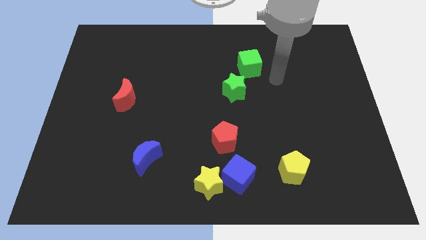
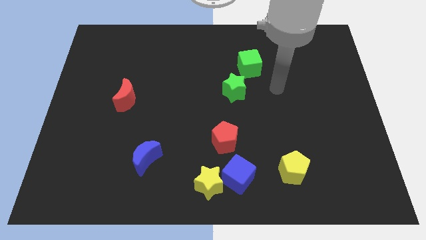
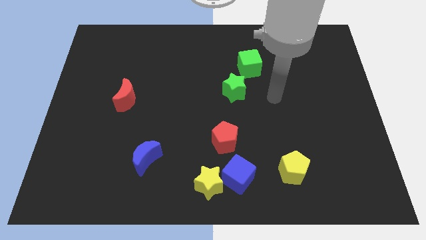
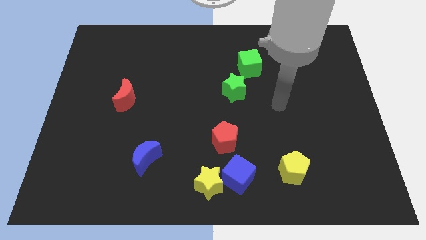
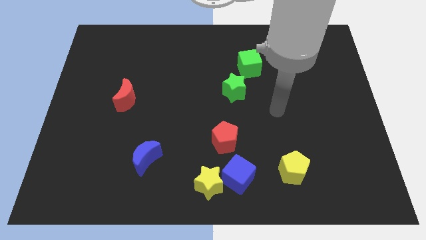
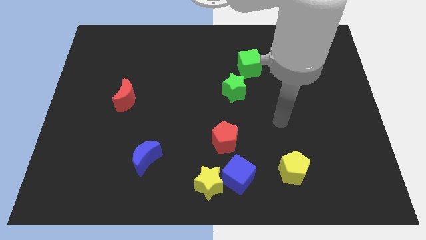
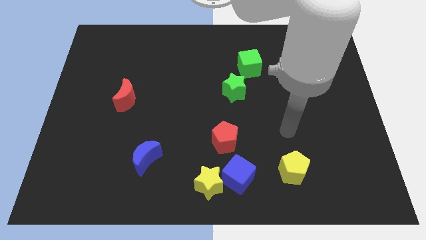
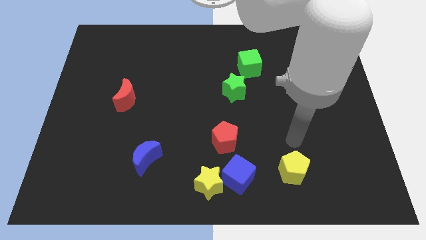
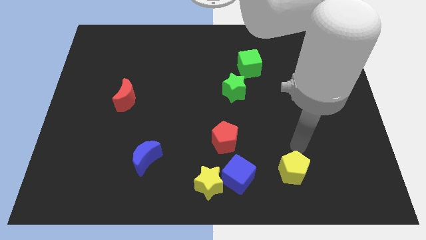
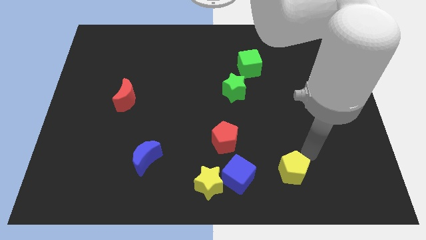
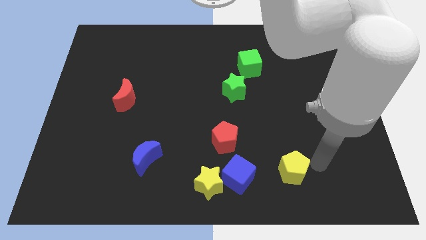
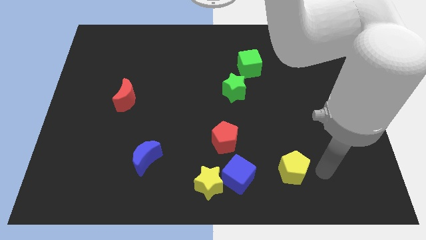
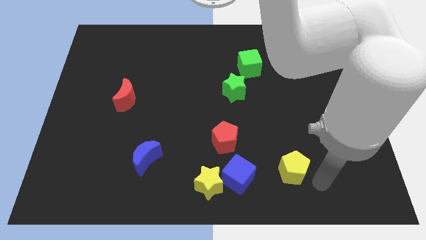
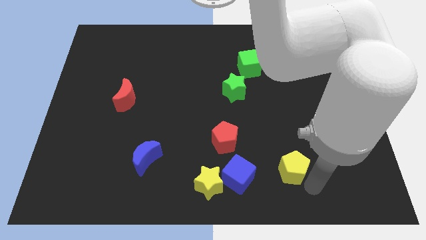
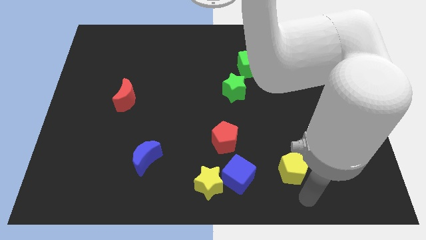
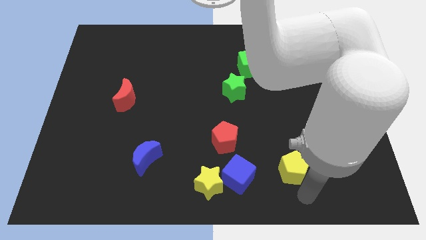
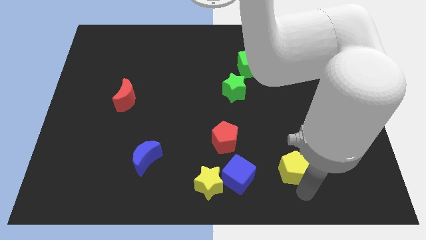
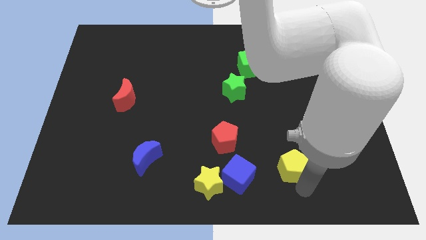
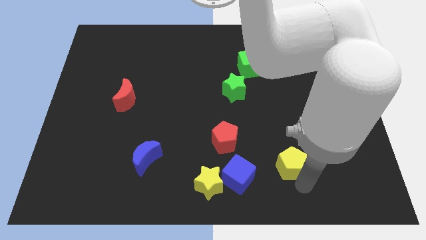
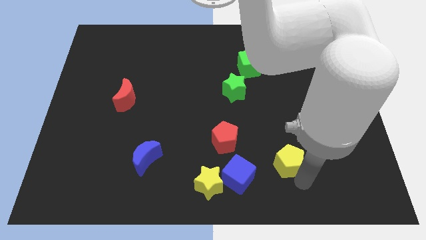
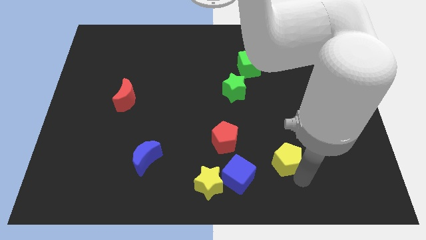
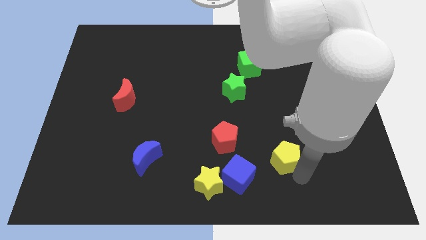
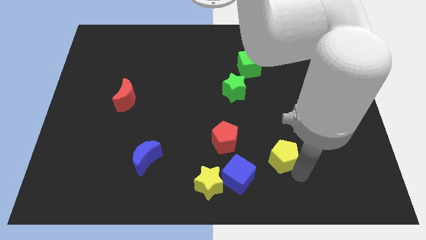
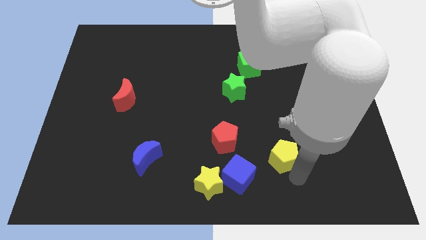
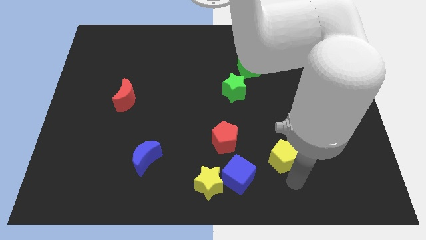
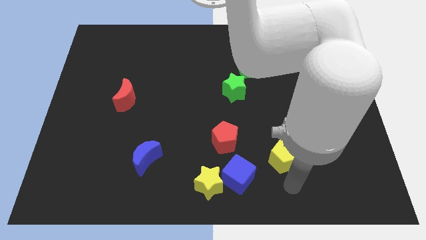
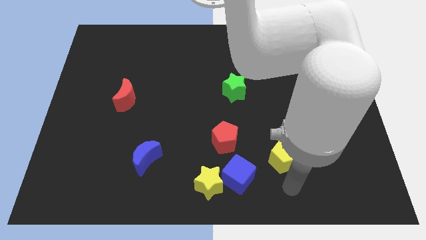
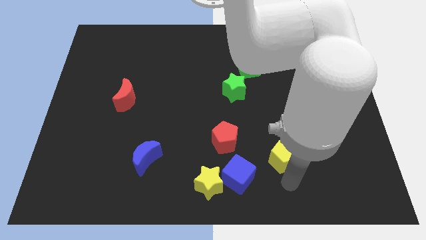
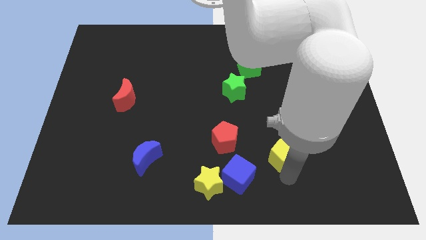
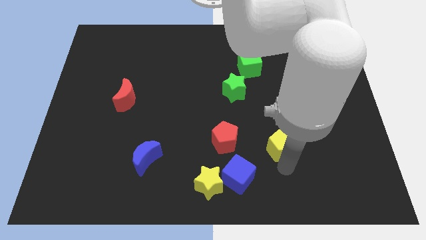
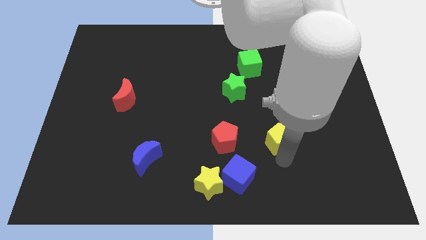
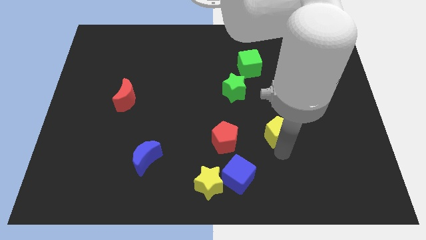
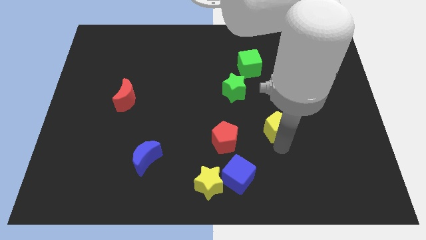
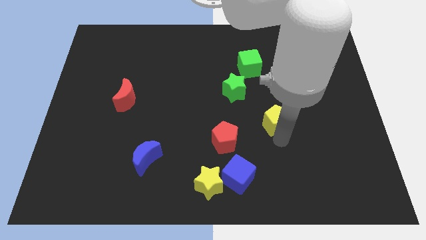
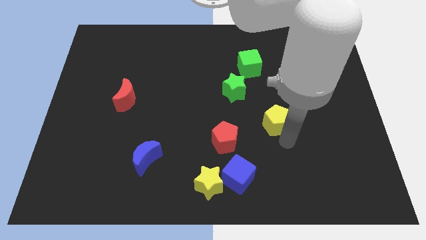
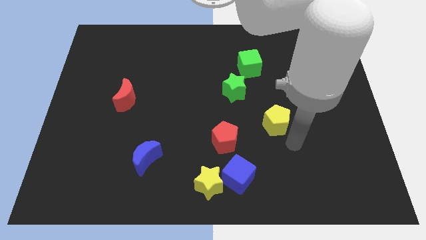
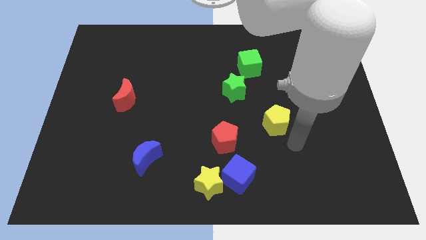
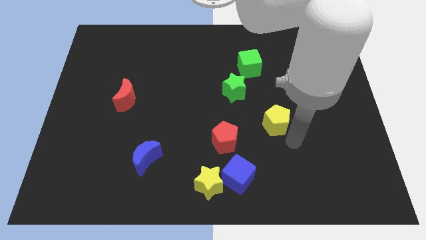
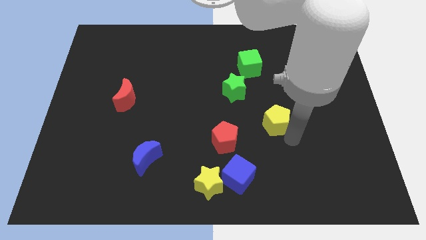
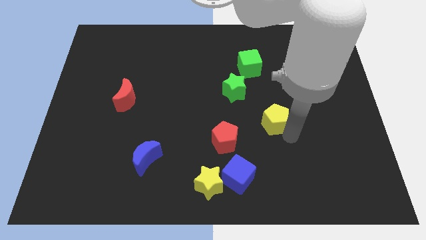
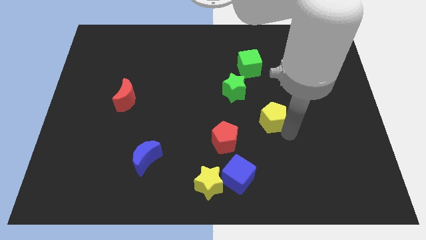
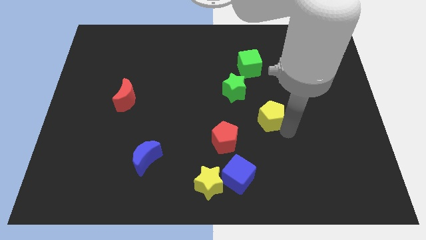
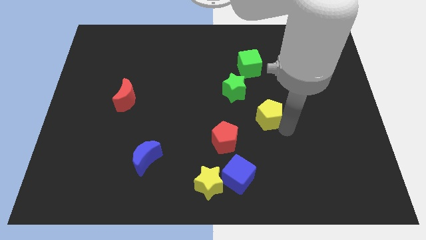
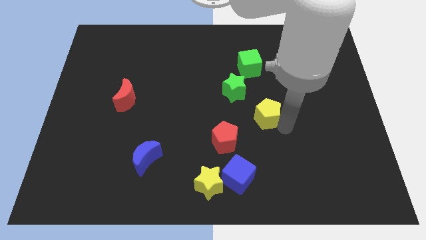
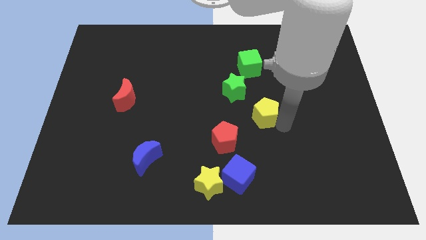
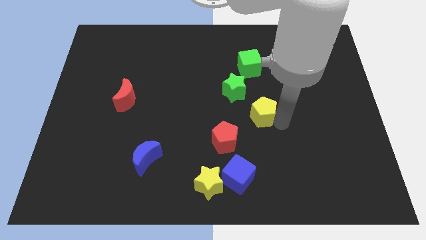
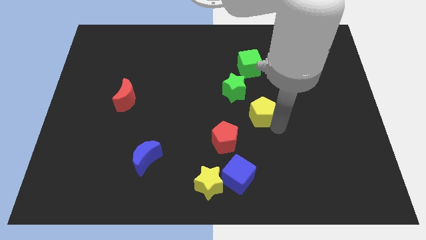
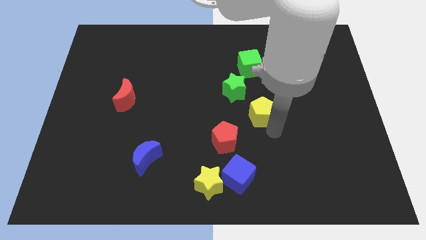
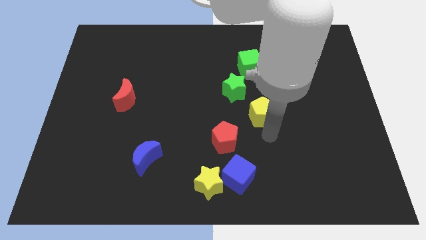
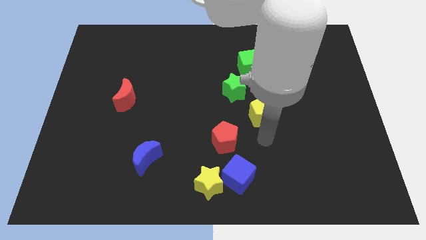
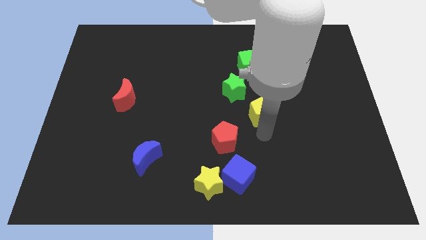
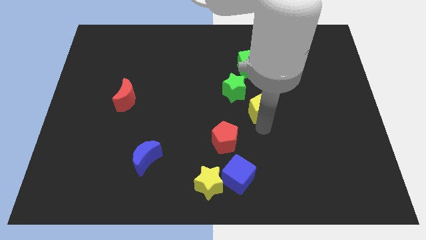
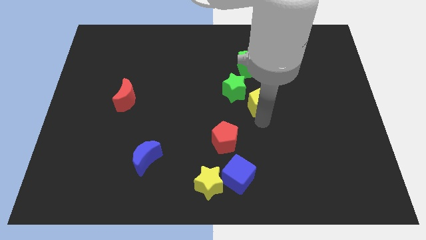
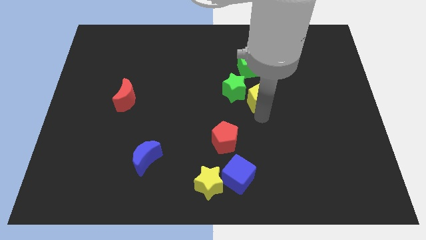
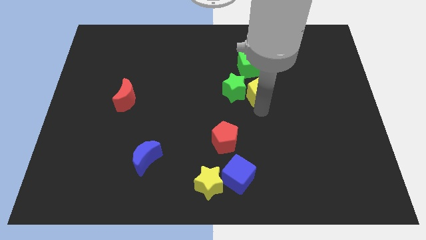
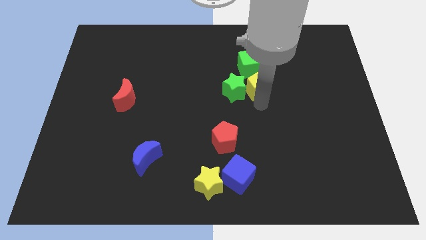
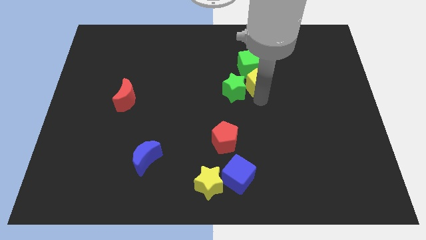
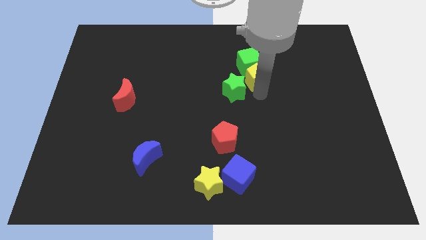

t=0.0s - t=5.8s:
slide the yellow pentagon towards the green cube

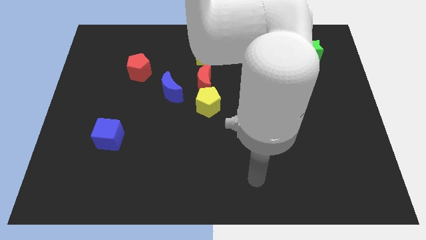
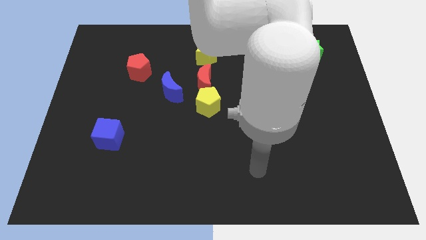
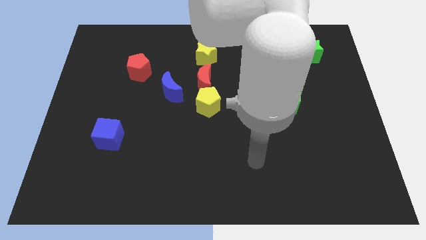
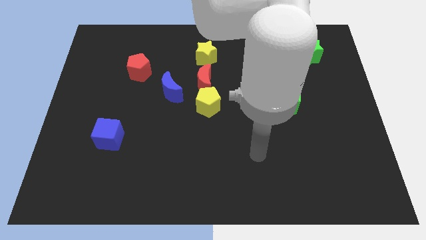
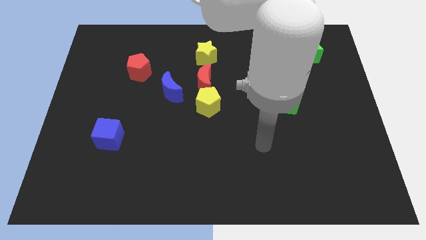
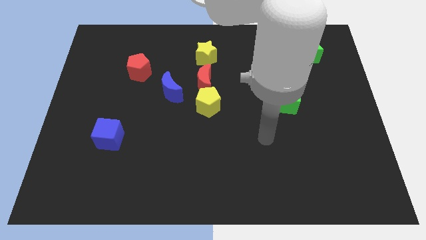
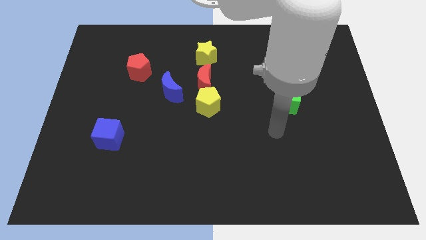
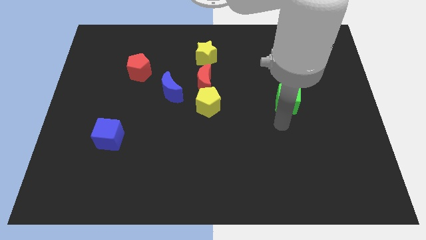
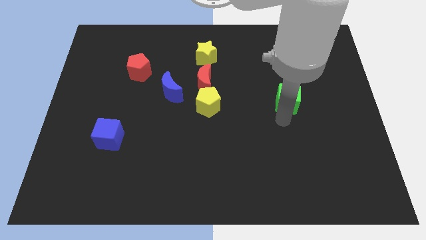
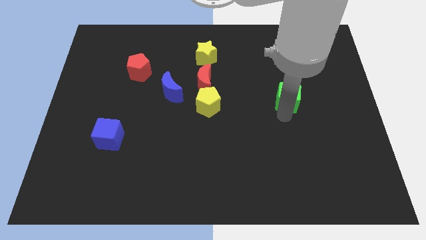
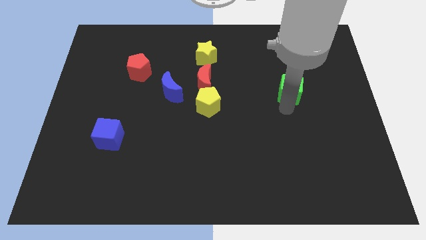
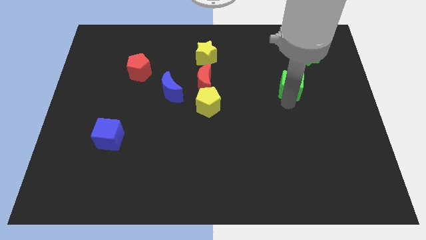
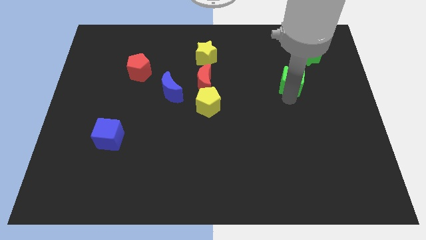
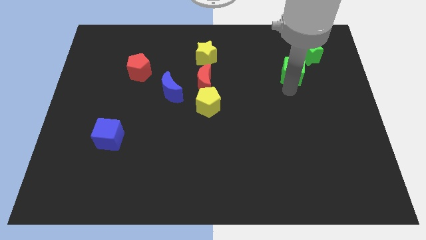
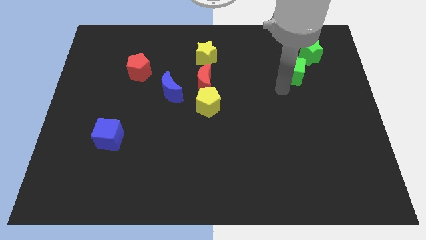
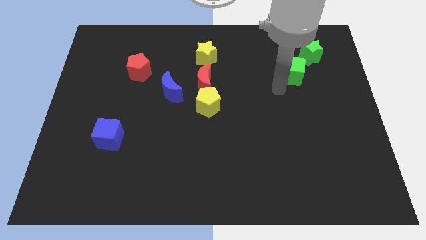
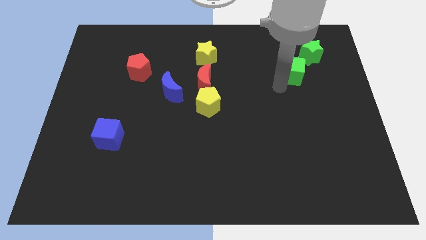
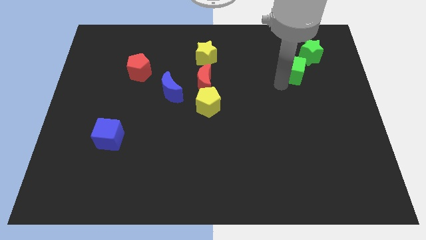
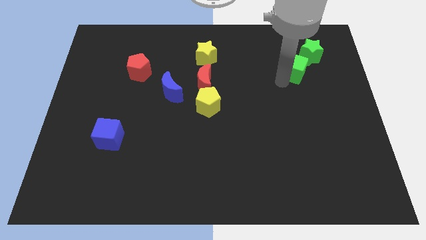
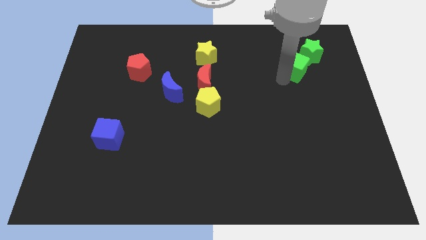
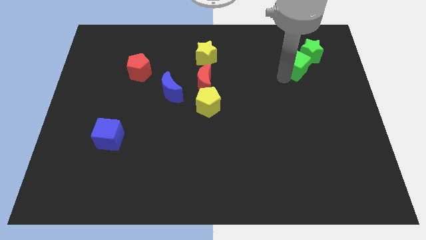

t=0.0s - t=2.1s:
put the green cube next to the green star
